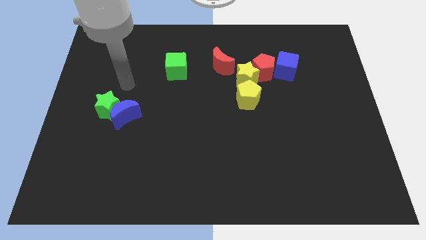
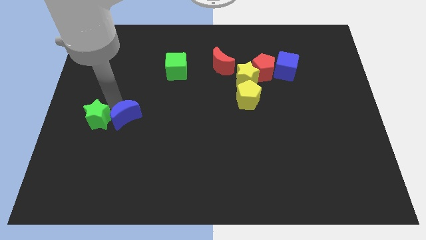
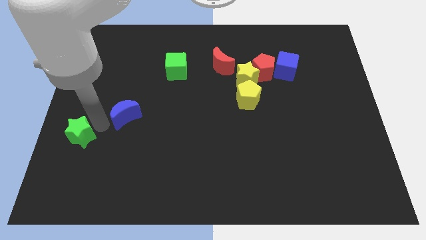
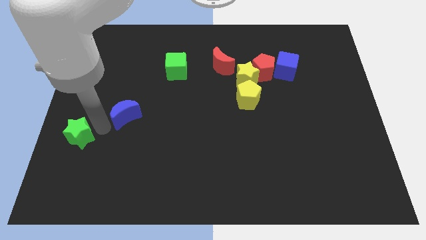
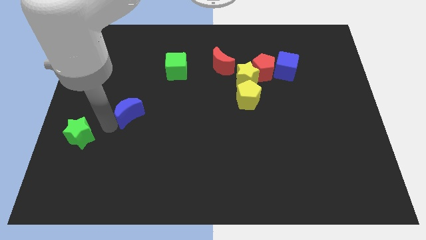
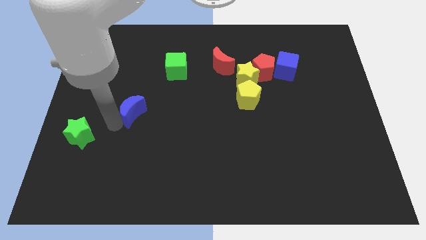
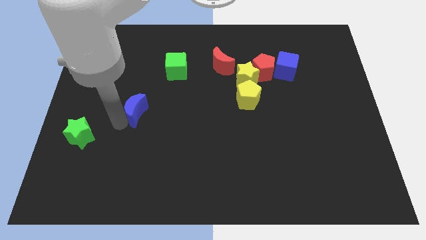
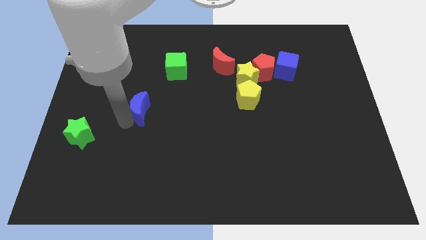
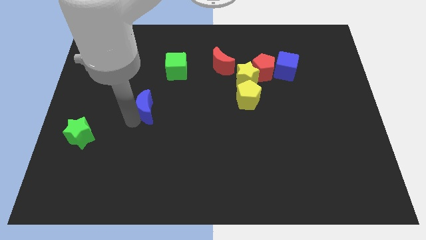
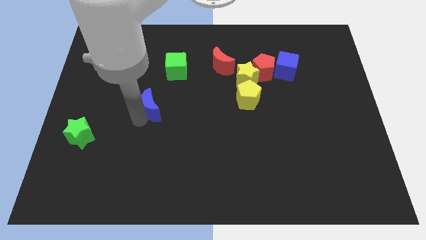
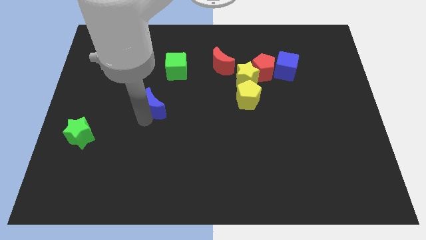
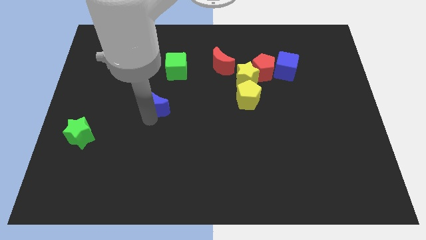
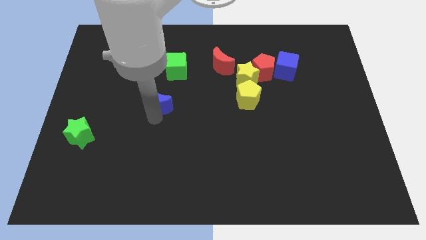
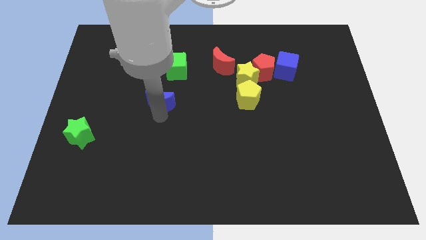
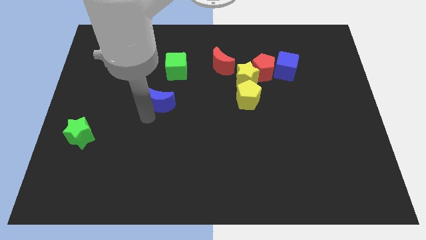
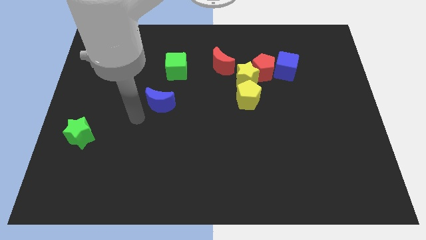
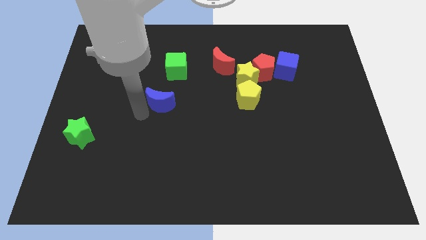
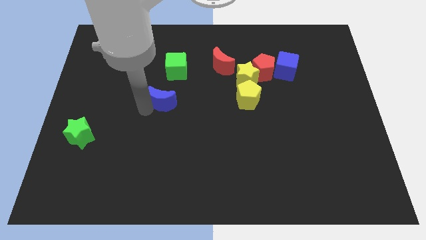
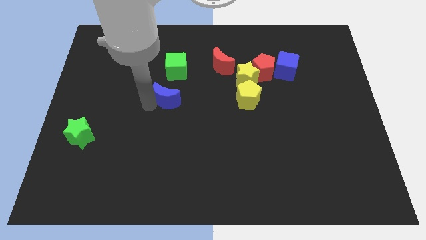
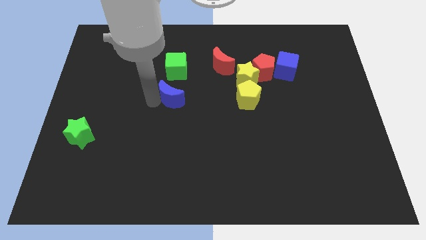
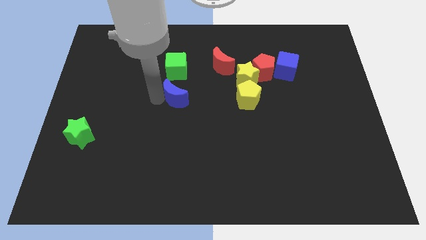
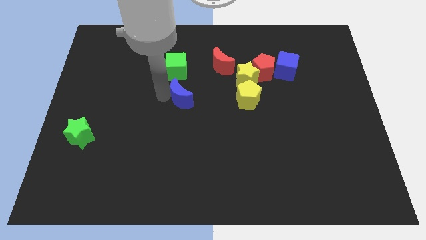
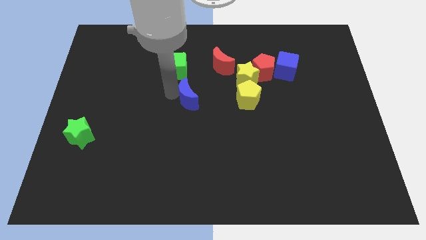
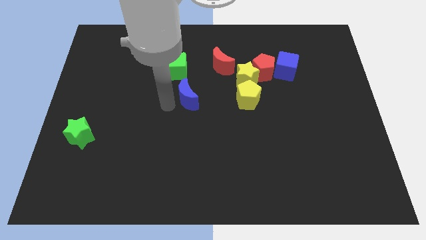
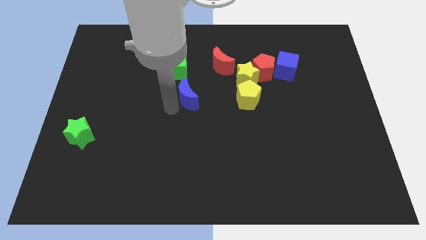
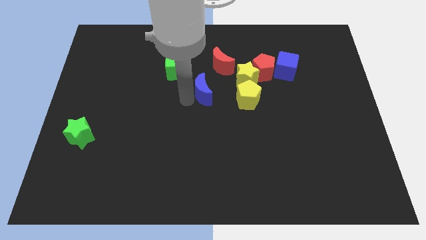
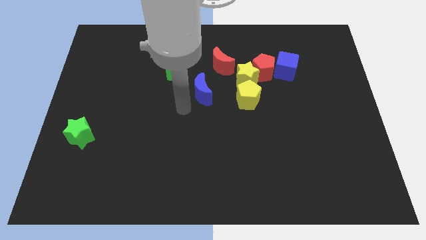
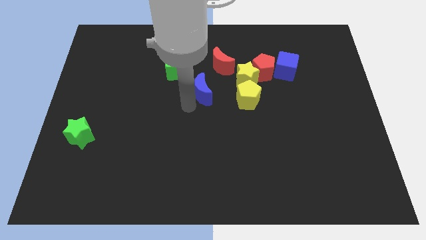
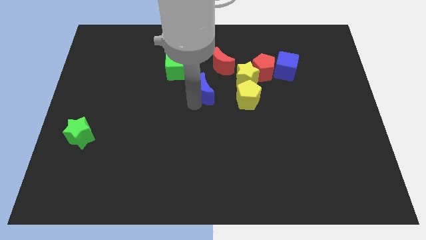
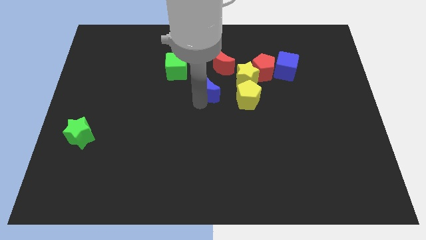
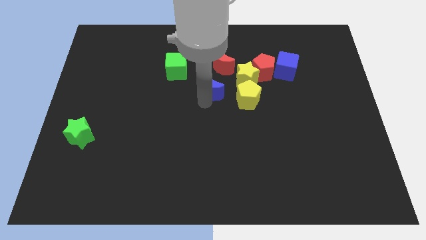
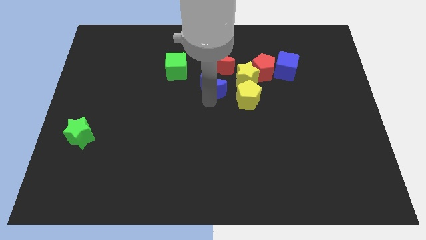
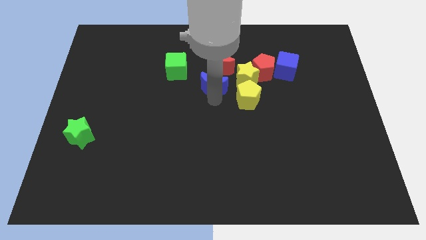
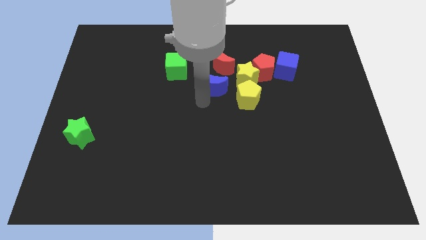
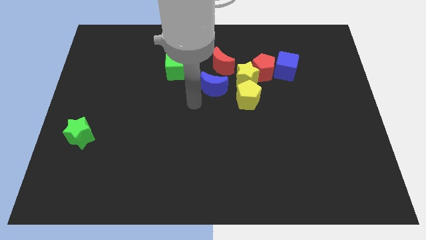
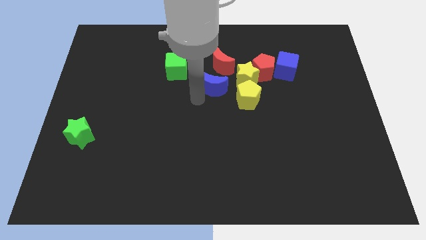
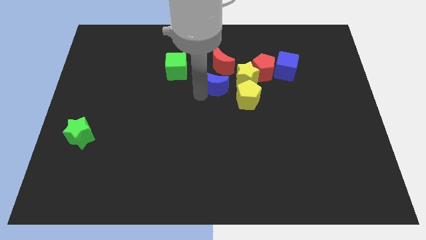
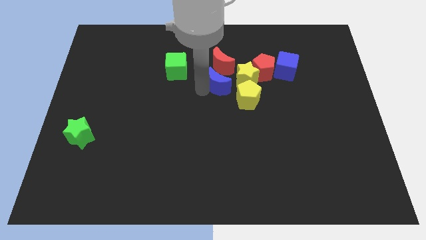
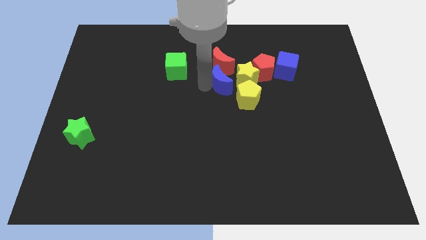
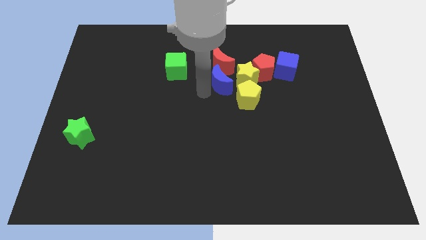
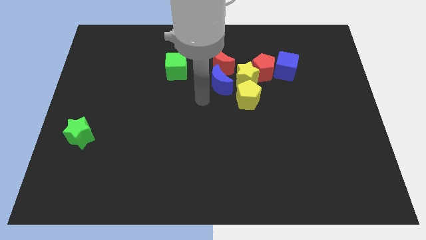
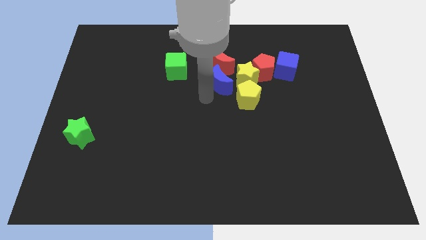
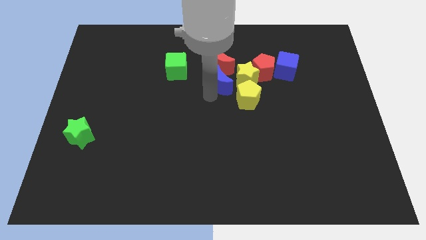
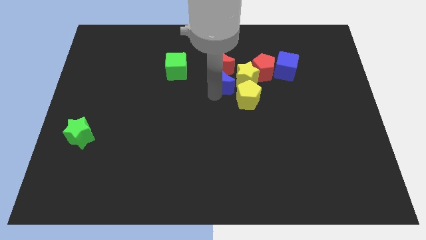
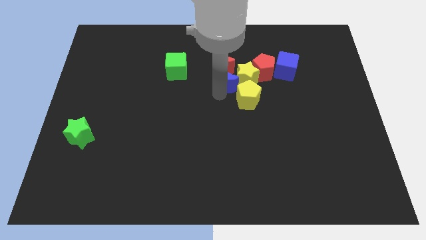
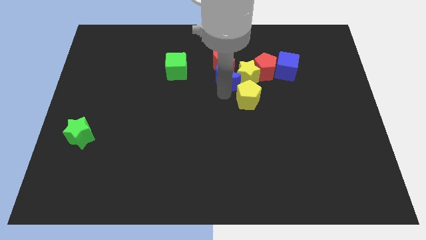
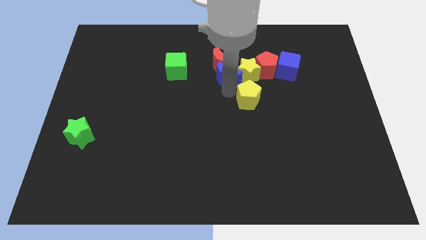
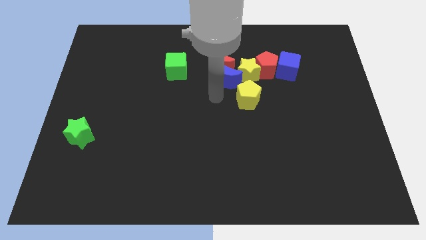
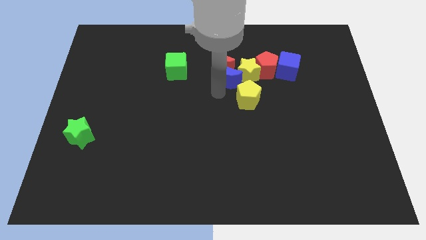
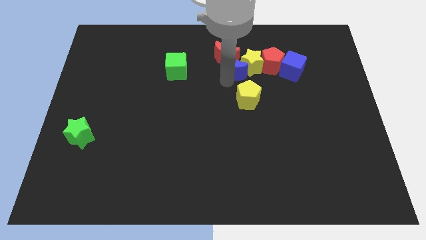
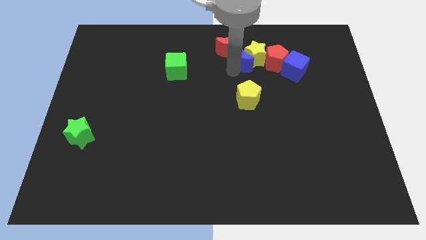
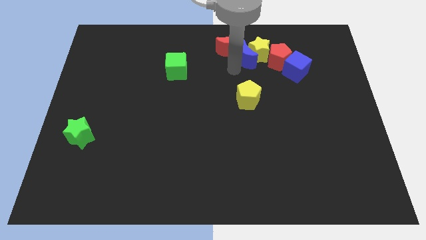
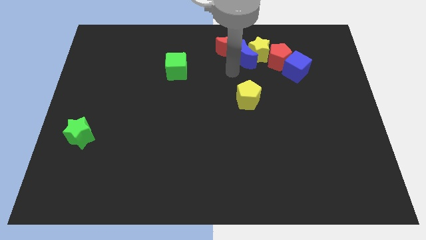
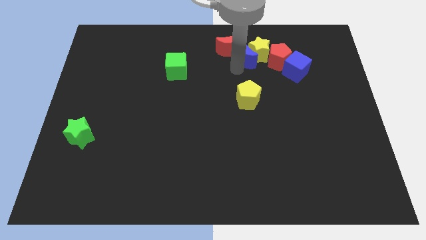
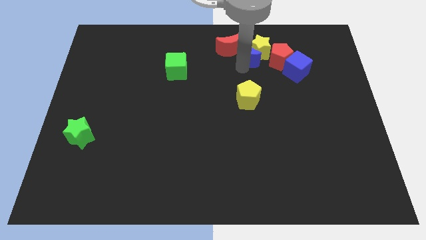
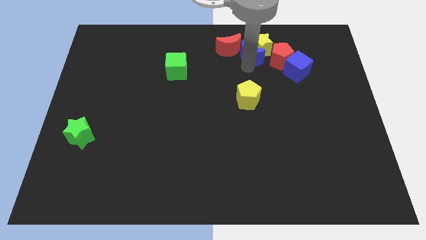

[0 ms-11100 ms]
put the blue moon to the top left of the red pentagon
